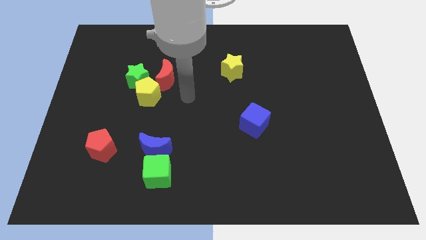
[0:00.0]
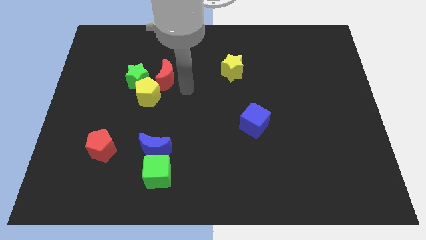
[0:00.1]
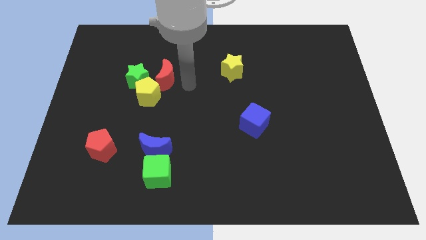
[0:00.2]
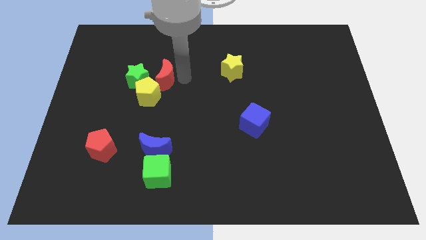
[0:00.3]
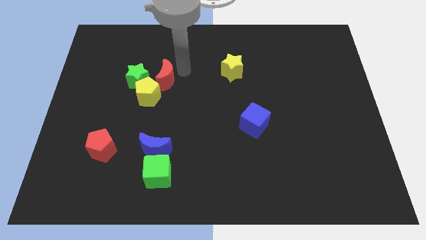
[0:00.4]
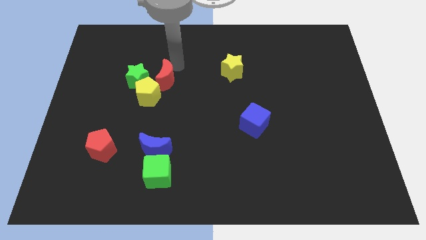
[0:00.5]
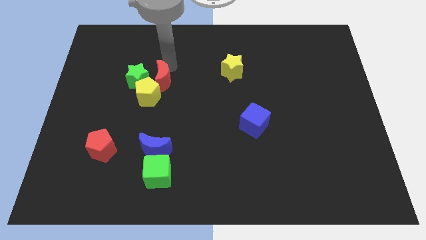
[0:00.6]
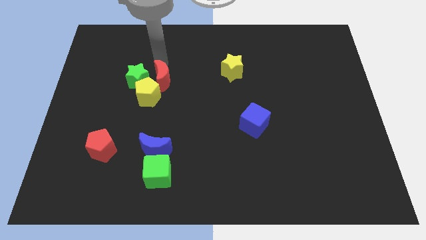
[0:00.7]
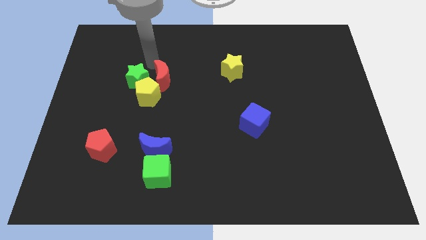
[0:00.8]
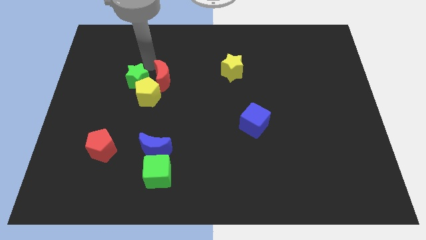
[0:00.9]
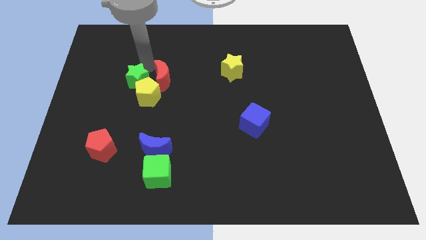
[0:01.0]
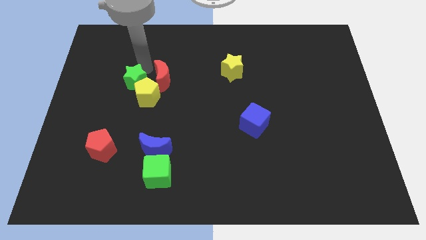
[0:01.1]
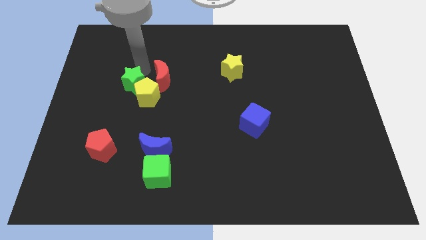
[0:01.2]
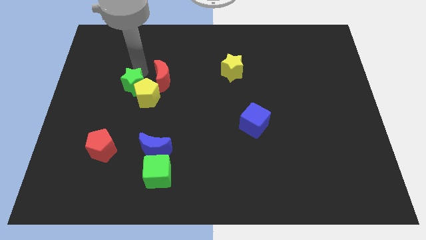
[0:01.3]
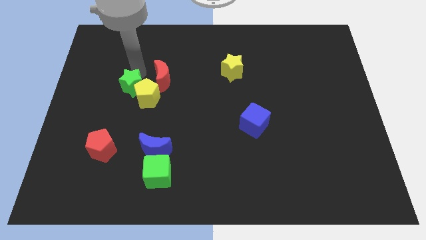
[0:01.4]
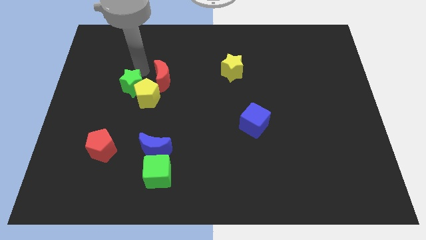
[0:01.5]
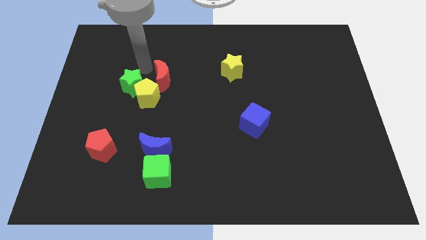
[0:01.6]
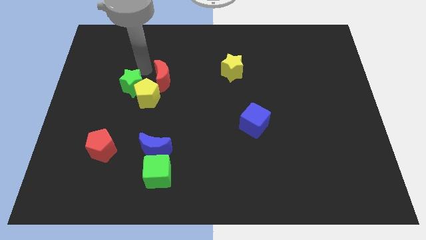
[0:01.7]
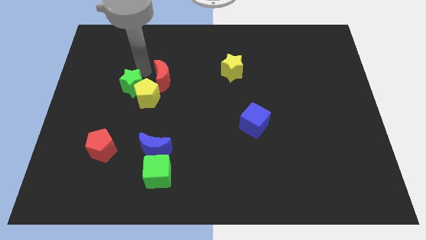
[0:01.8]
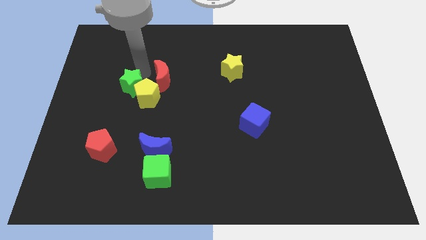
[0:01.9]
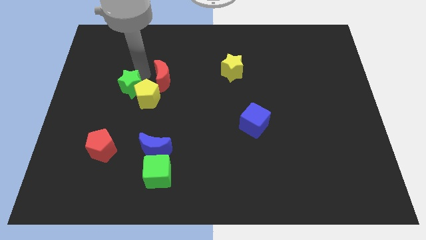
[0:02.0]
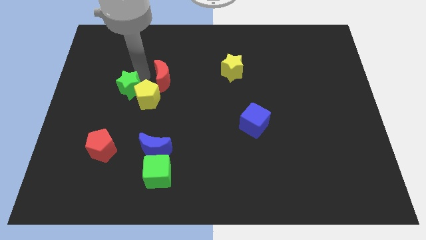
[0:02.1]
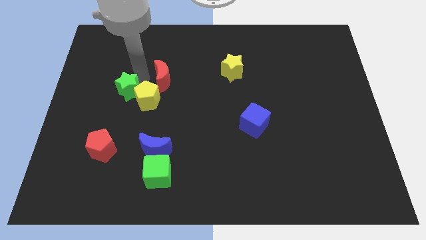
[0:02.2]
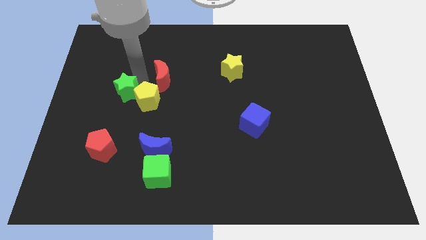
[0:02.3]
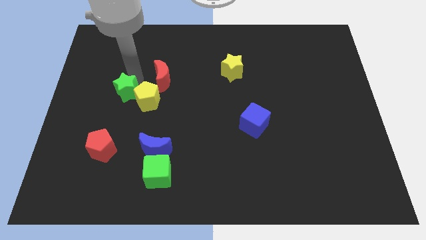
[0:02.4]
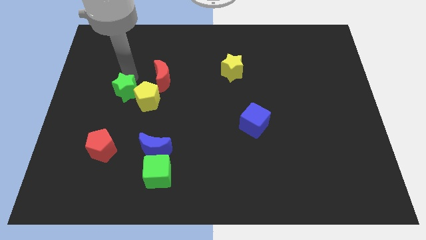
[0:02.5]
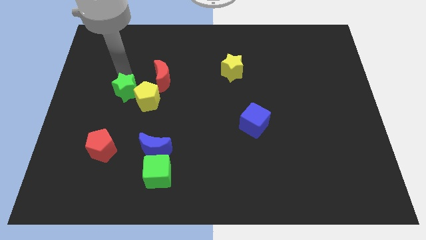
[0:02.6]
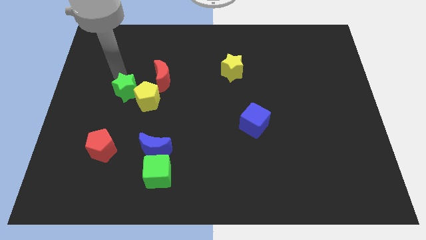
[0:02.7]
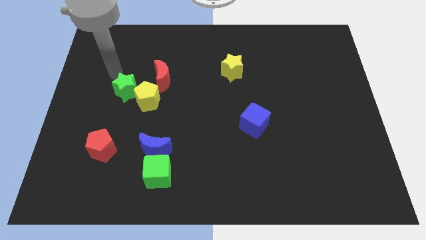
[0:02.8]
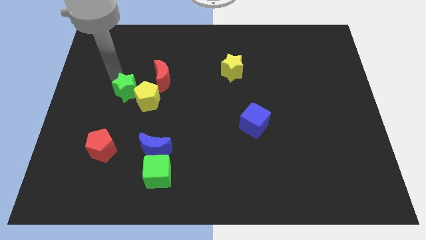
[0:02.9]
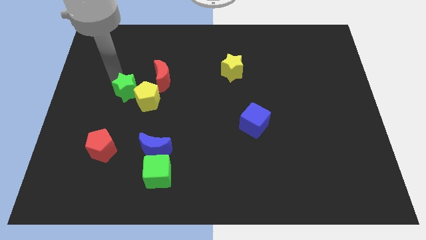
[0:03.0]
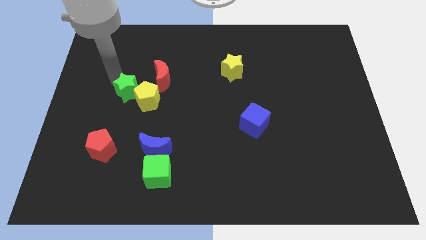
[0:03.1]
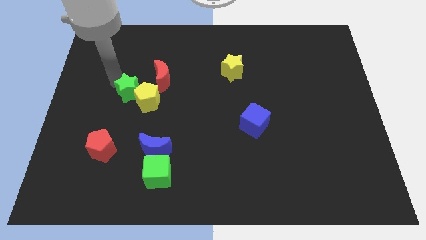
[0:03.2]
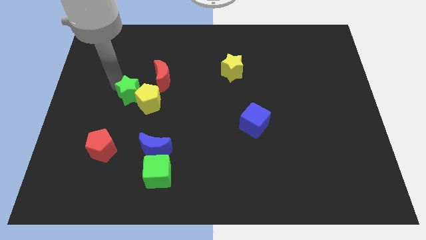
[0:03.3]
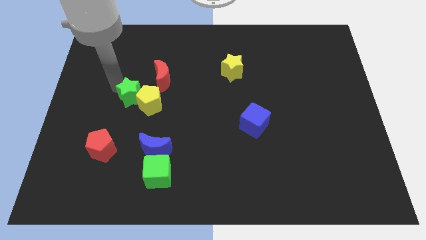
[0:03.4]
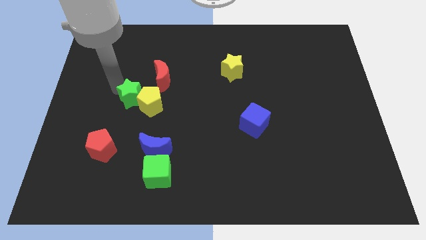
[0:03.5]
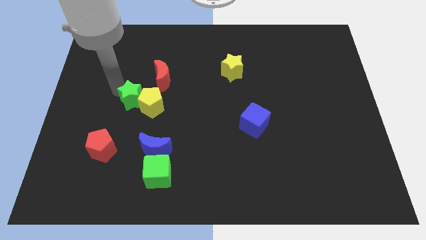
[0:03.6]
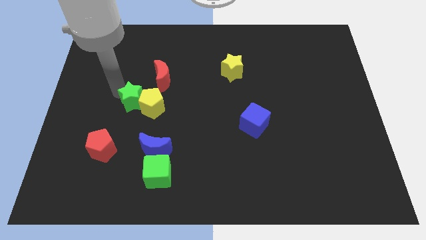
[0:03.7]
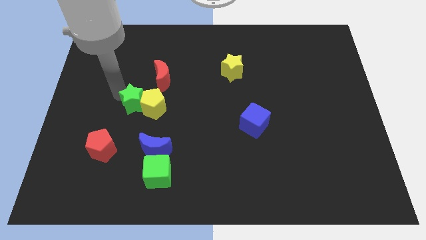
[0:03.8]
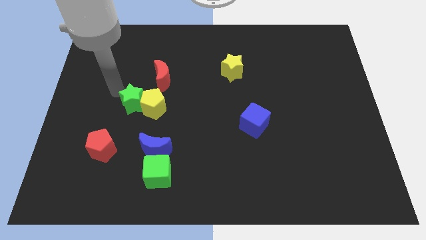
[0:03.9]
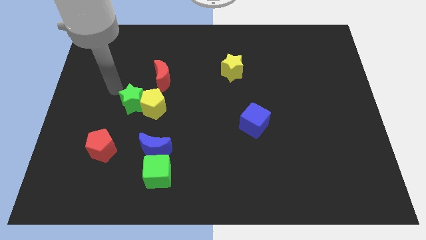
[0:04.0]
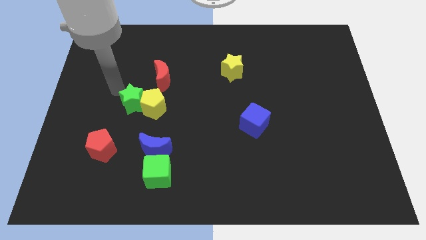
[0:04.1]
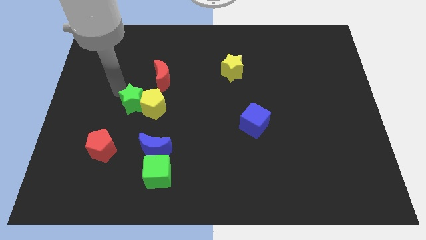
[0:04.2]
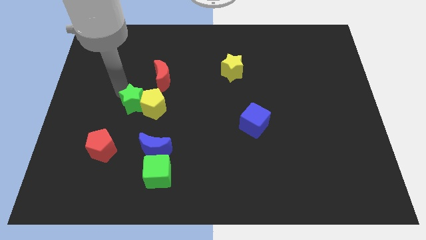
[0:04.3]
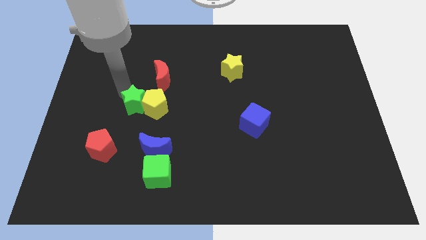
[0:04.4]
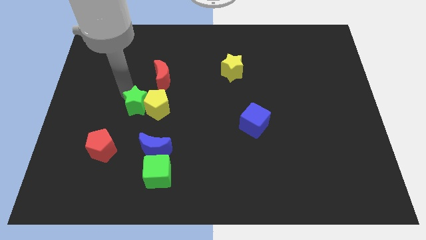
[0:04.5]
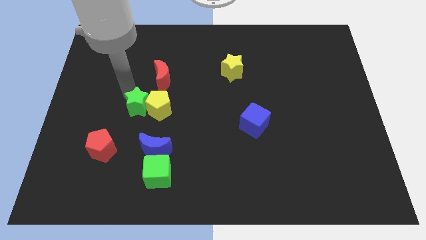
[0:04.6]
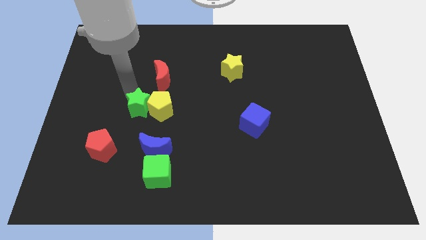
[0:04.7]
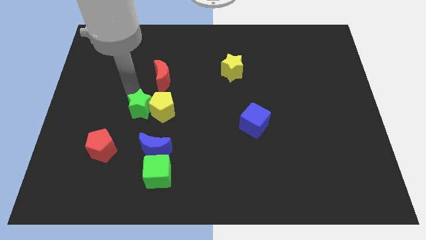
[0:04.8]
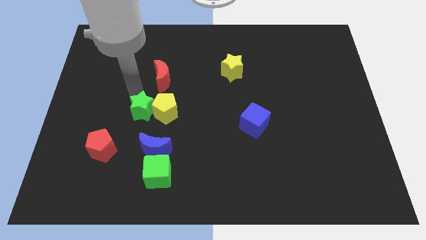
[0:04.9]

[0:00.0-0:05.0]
push the green star slightly diagonally down and to the right

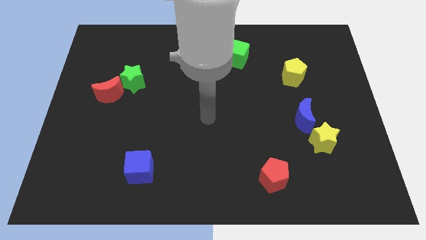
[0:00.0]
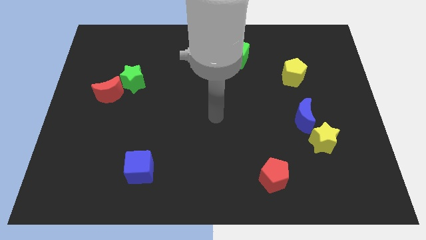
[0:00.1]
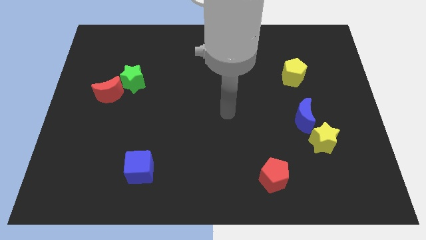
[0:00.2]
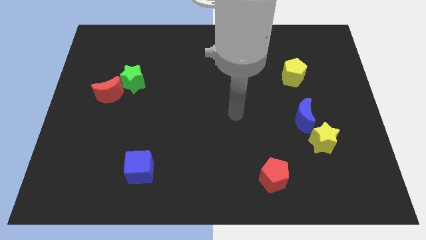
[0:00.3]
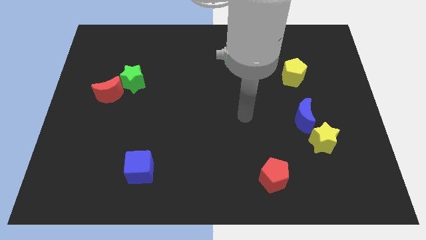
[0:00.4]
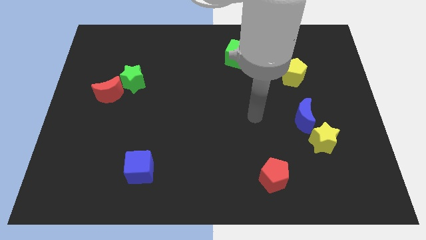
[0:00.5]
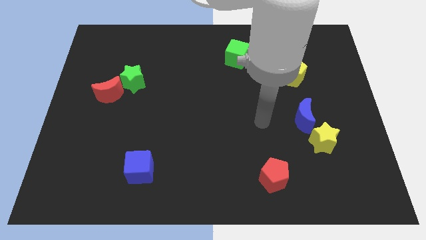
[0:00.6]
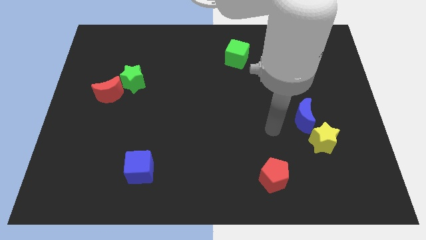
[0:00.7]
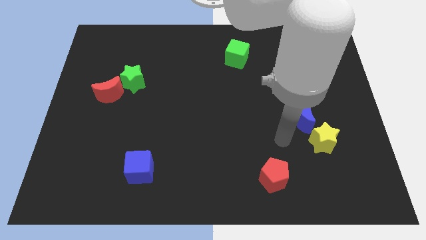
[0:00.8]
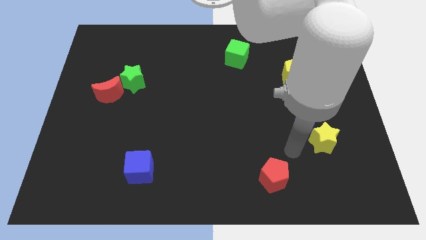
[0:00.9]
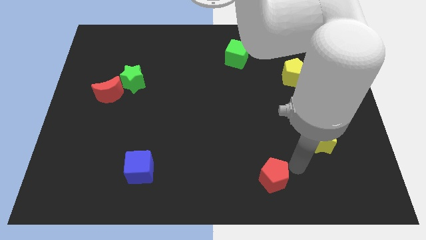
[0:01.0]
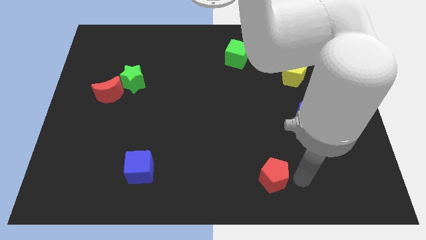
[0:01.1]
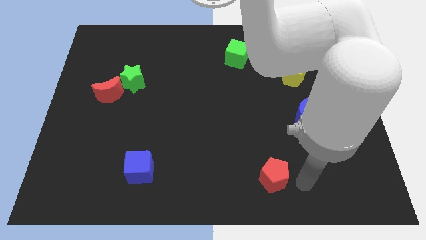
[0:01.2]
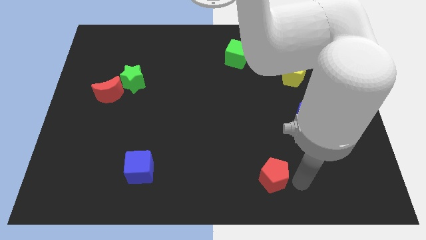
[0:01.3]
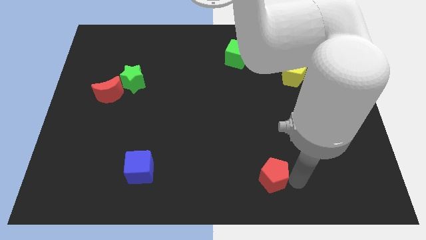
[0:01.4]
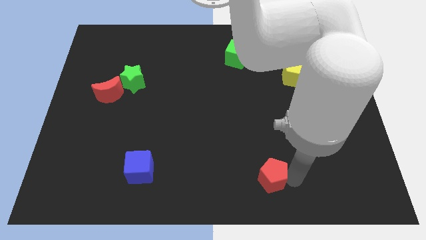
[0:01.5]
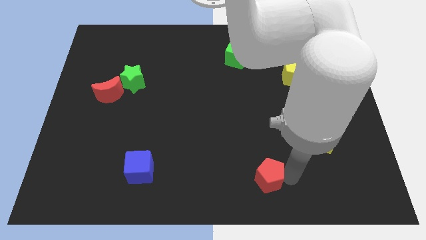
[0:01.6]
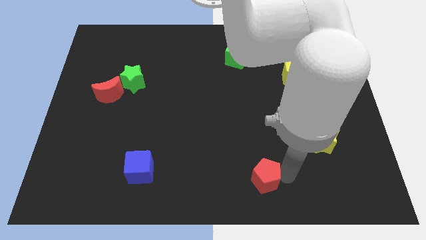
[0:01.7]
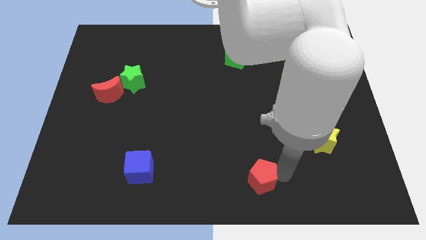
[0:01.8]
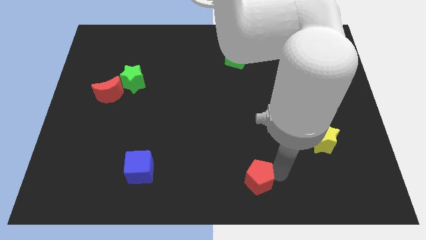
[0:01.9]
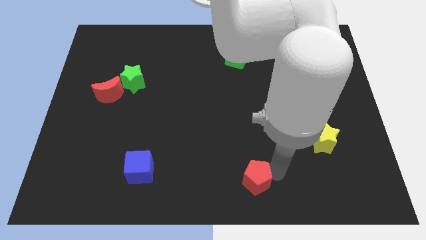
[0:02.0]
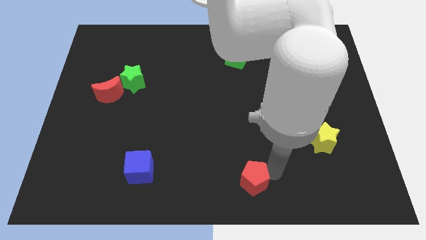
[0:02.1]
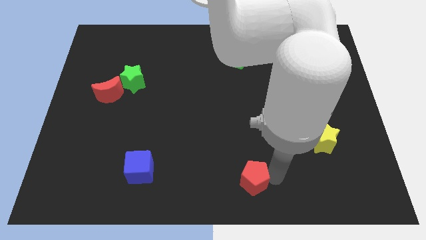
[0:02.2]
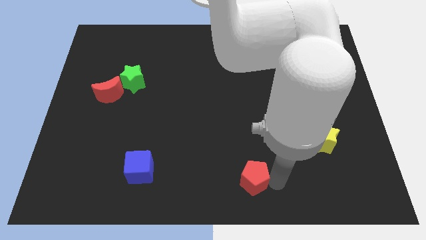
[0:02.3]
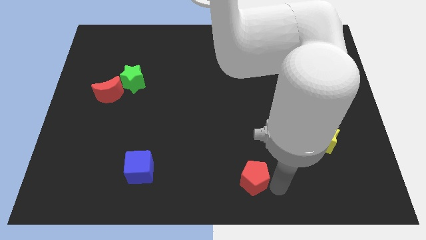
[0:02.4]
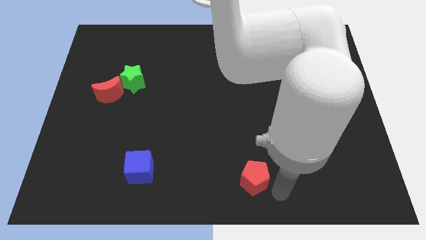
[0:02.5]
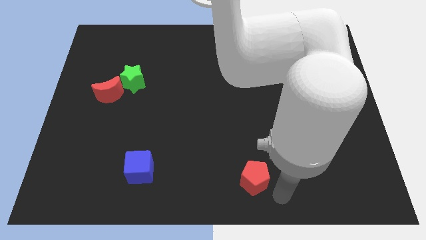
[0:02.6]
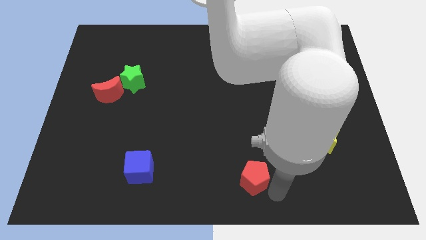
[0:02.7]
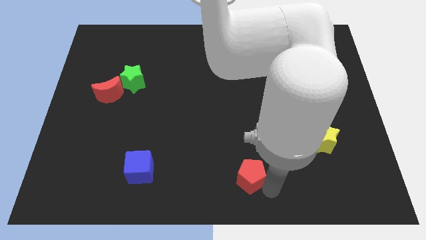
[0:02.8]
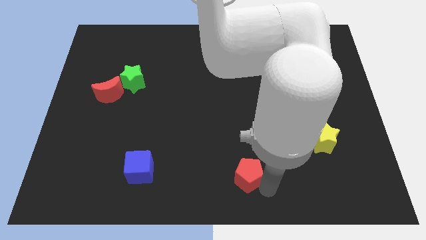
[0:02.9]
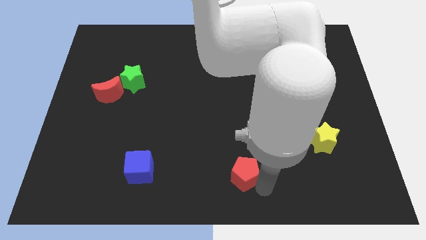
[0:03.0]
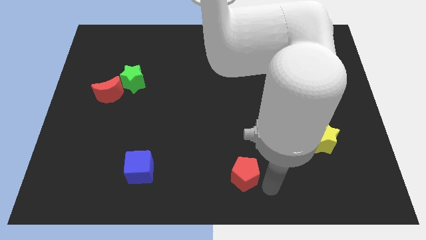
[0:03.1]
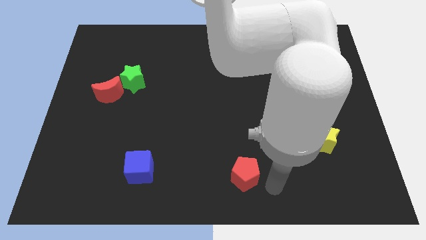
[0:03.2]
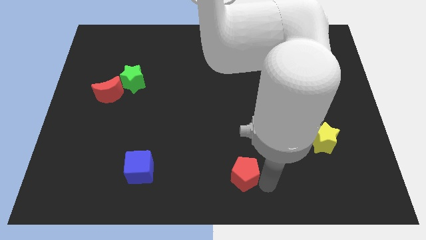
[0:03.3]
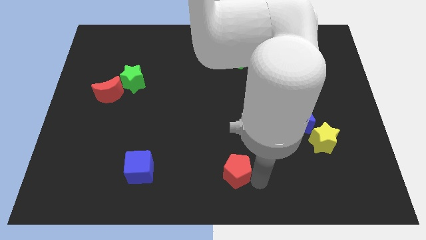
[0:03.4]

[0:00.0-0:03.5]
slightly slide the red pentagon left
